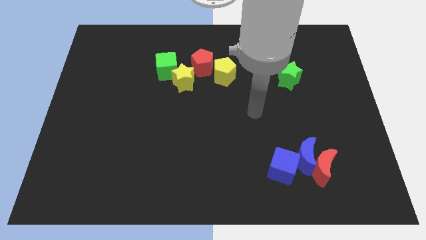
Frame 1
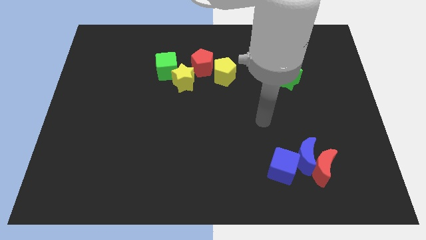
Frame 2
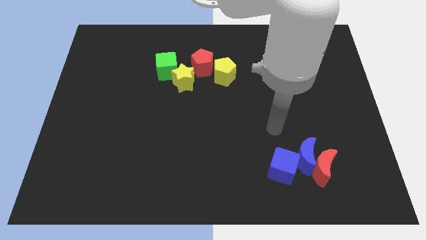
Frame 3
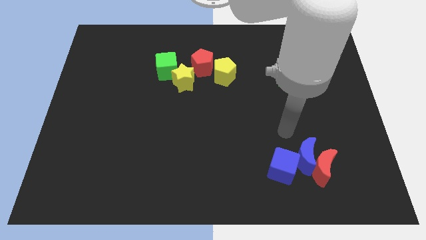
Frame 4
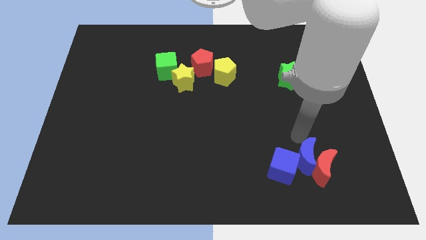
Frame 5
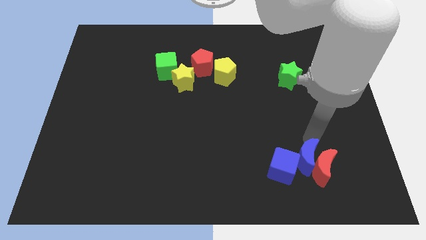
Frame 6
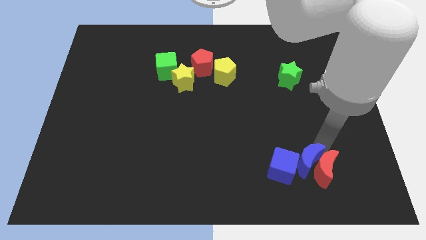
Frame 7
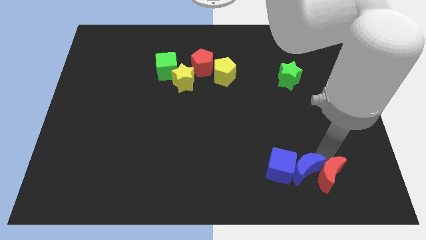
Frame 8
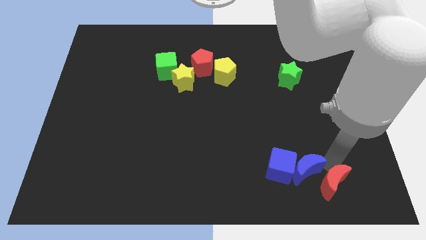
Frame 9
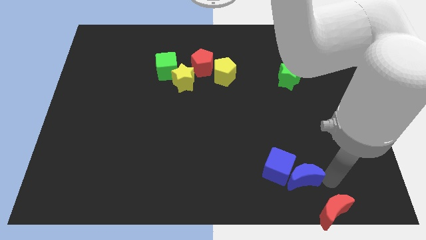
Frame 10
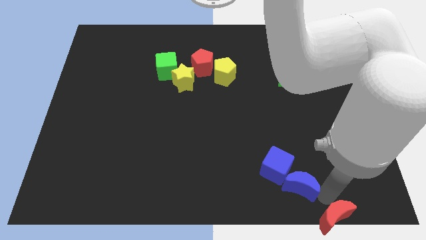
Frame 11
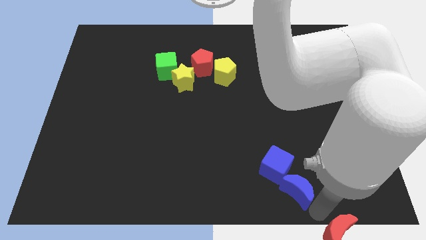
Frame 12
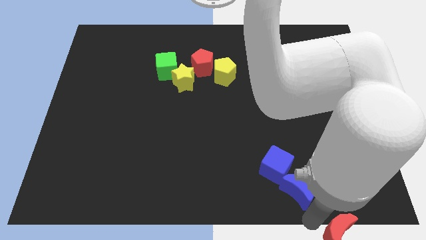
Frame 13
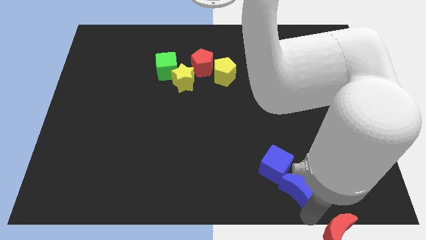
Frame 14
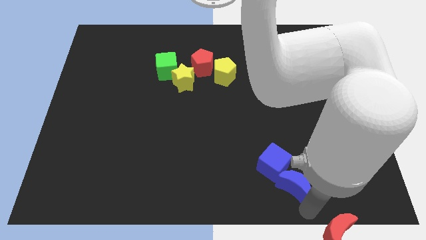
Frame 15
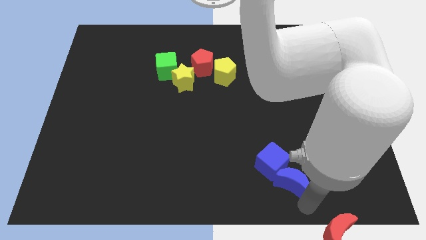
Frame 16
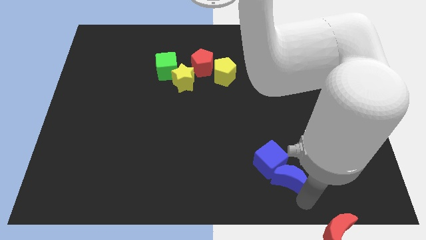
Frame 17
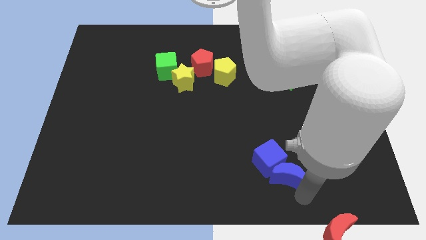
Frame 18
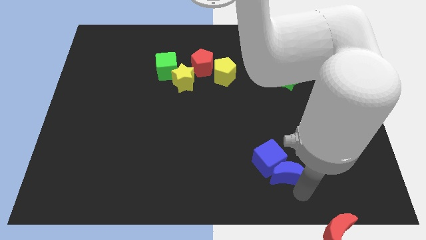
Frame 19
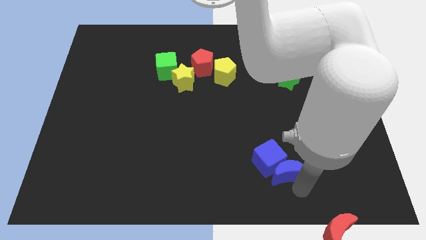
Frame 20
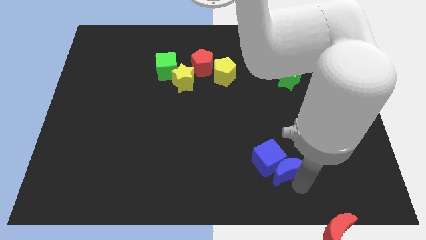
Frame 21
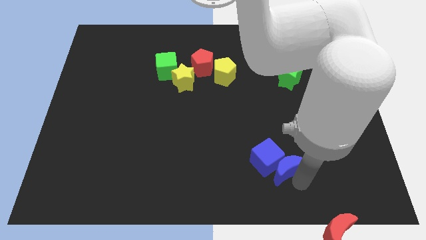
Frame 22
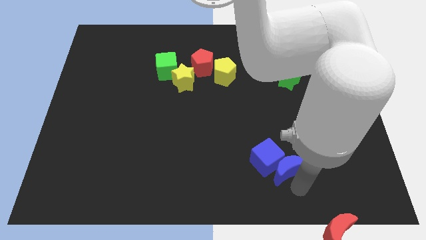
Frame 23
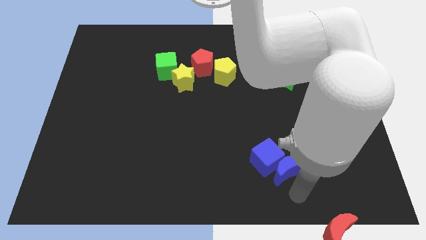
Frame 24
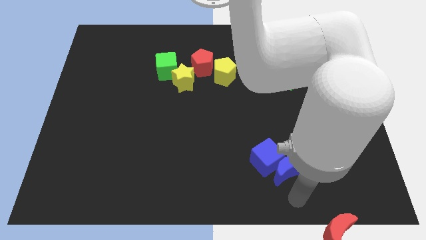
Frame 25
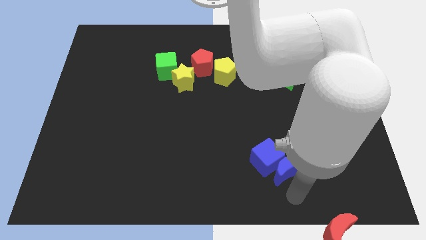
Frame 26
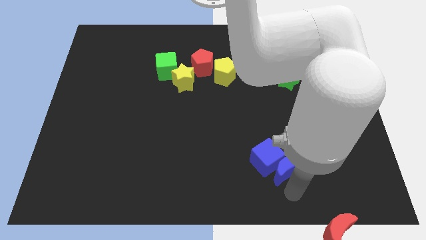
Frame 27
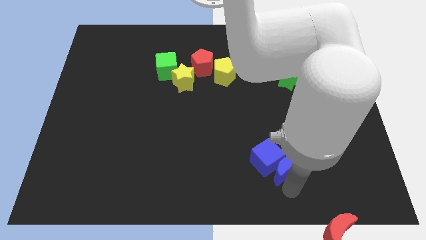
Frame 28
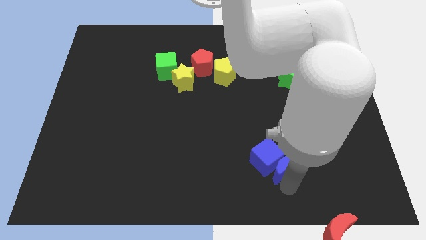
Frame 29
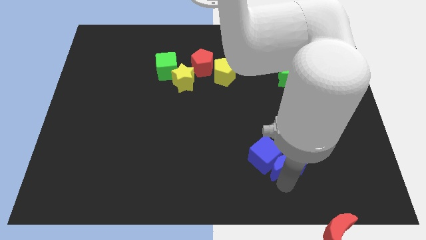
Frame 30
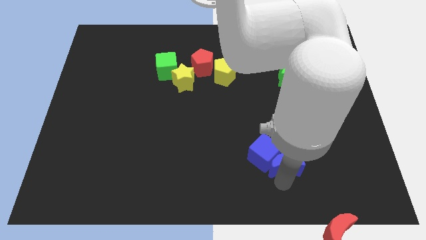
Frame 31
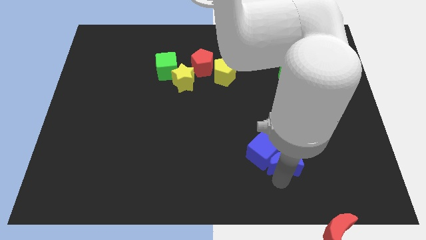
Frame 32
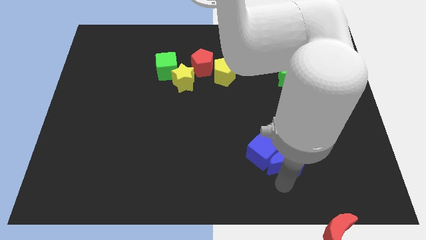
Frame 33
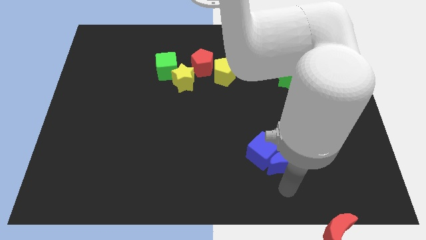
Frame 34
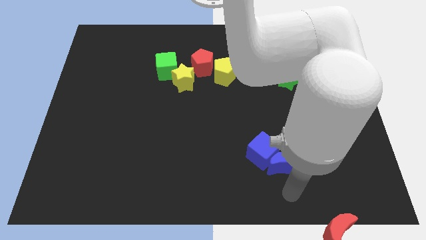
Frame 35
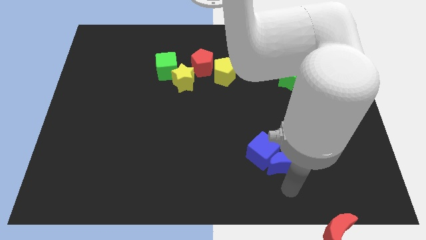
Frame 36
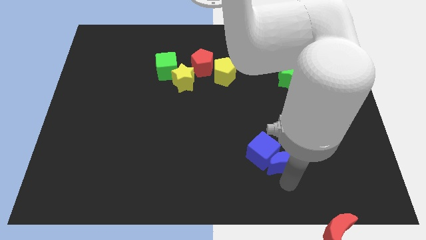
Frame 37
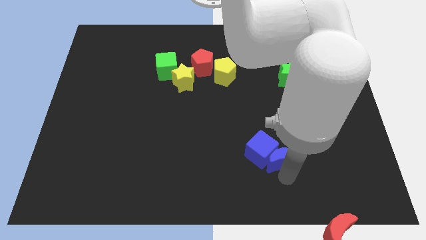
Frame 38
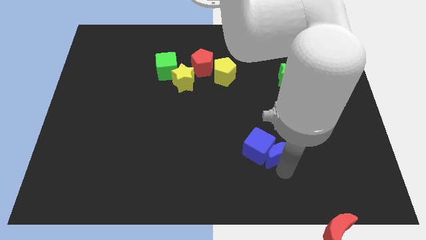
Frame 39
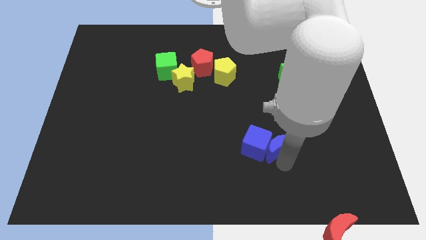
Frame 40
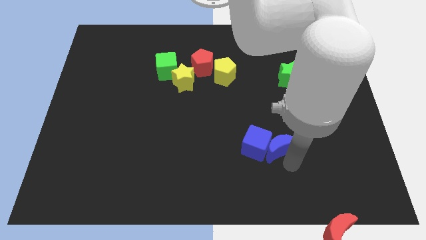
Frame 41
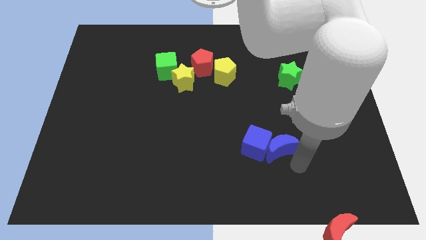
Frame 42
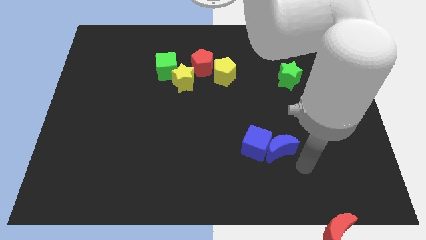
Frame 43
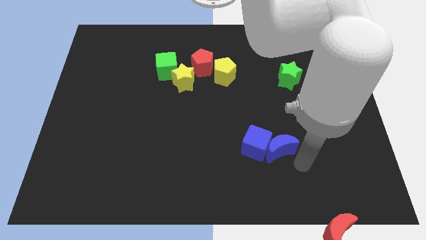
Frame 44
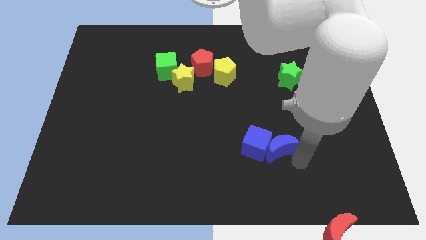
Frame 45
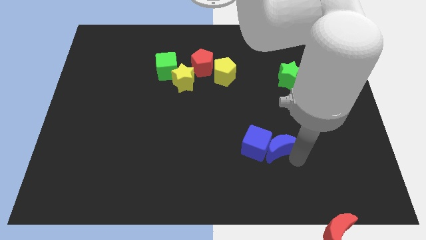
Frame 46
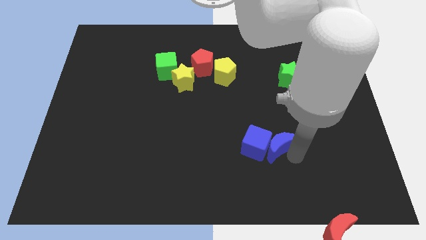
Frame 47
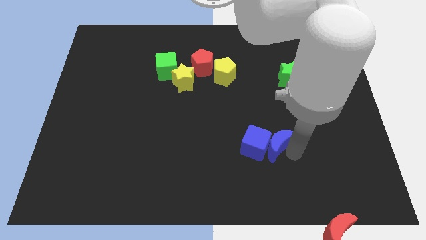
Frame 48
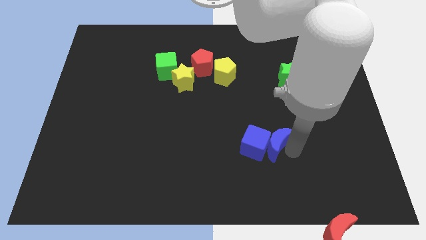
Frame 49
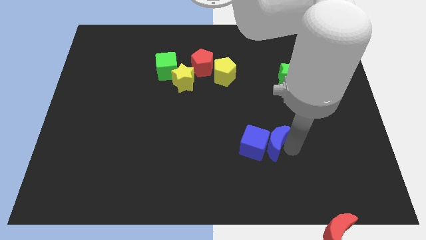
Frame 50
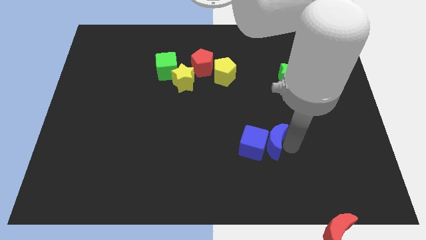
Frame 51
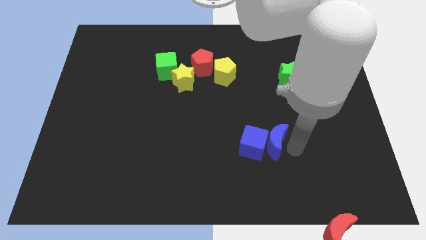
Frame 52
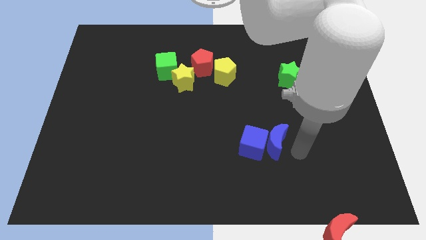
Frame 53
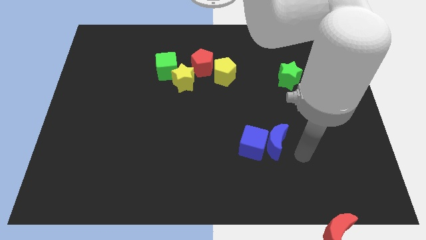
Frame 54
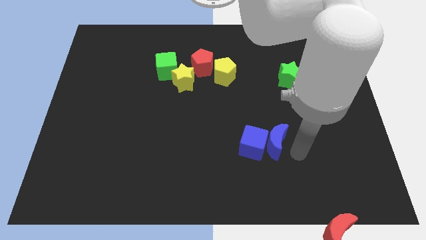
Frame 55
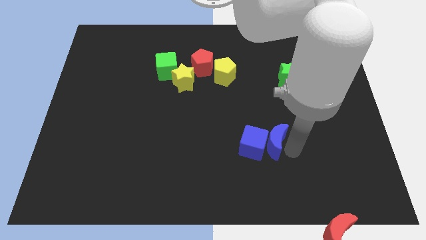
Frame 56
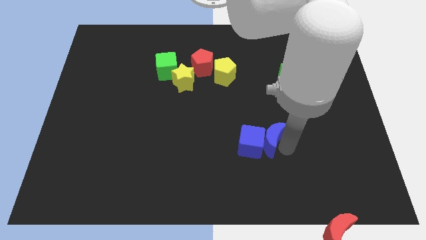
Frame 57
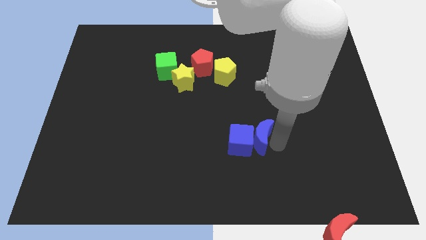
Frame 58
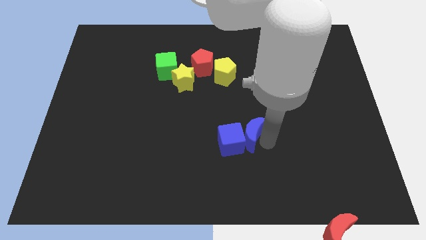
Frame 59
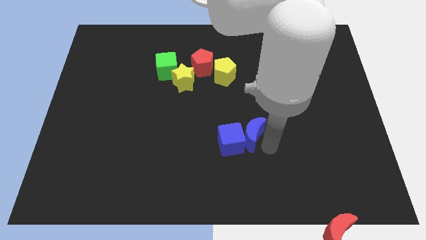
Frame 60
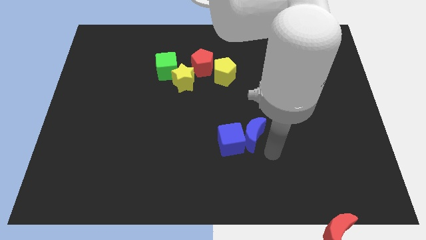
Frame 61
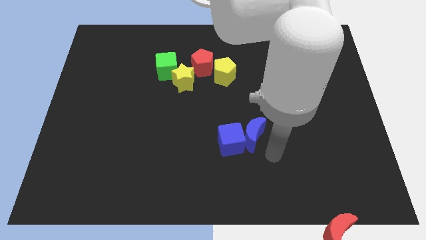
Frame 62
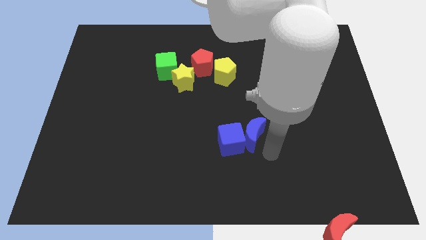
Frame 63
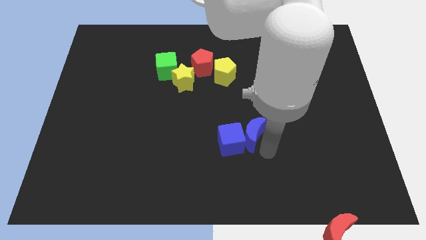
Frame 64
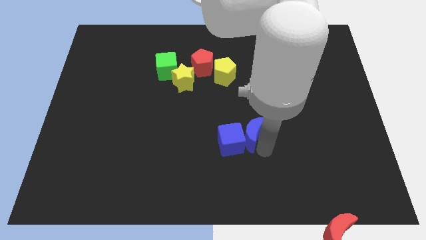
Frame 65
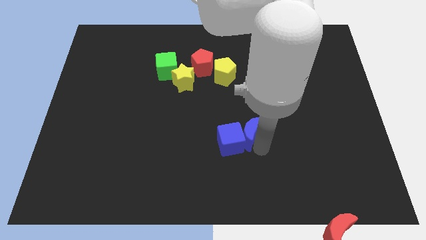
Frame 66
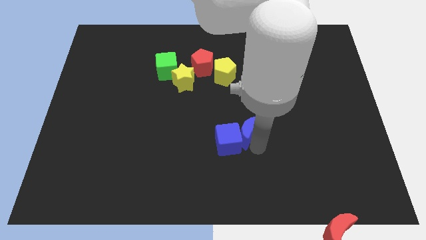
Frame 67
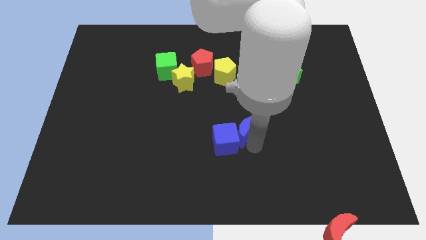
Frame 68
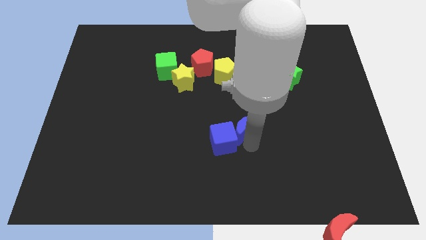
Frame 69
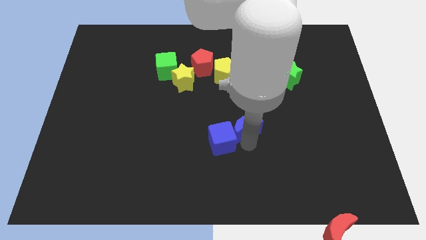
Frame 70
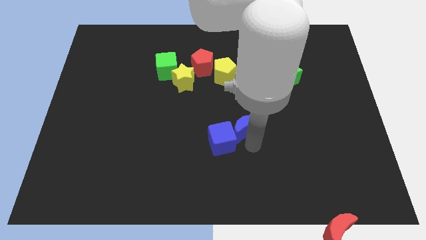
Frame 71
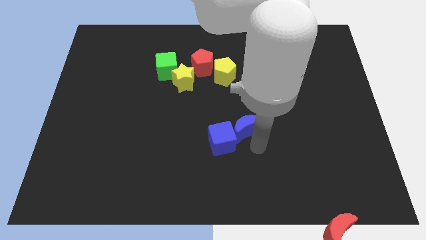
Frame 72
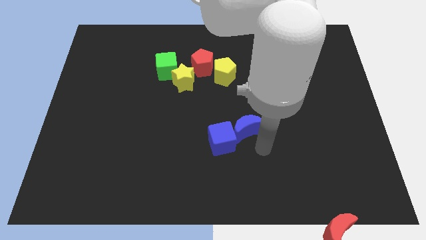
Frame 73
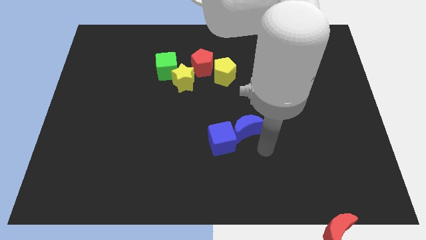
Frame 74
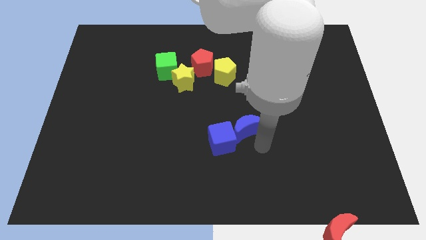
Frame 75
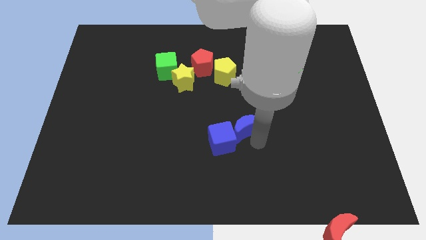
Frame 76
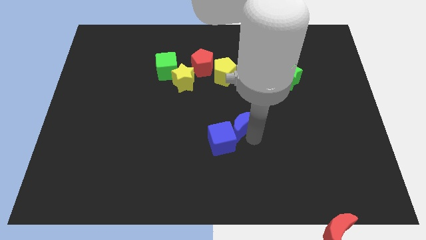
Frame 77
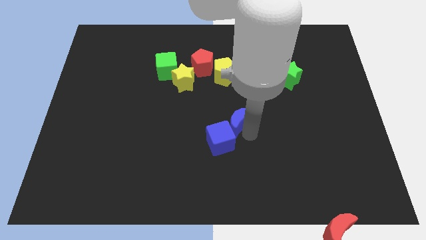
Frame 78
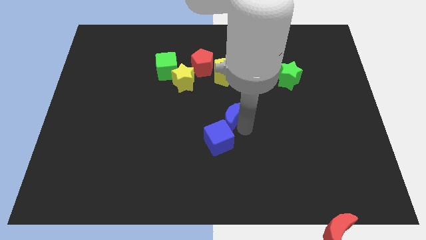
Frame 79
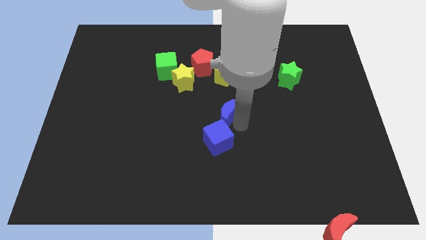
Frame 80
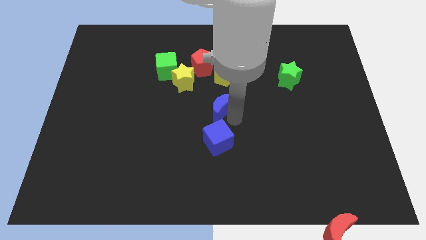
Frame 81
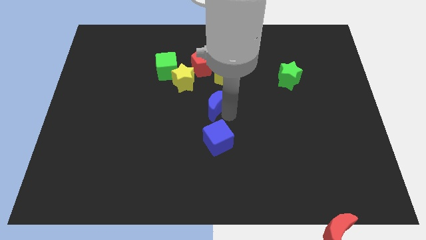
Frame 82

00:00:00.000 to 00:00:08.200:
put the blue moon below the red pentagon

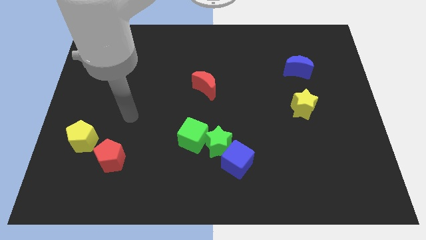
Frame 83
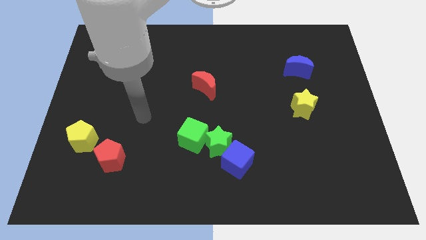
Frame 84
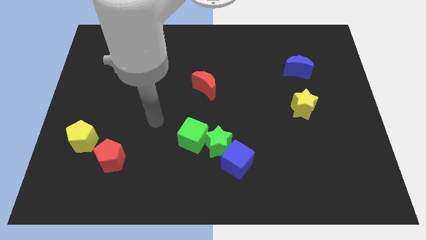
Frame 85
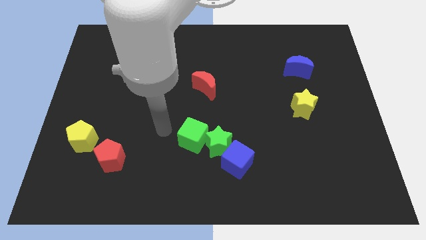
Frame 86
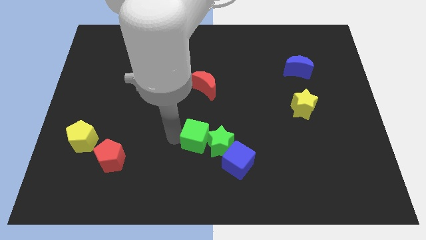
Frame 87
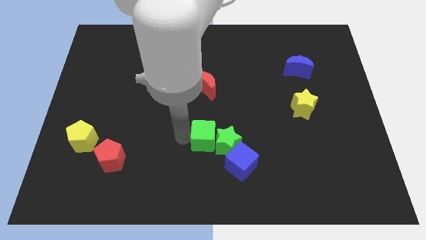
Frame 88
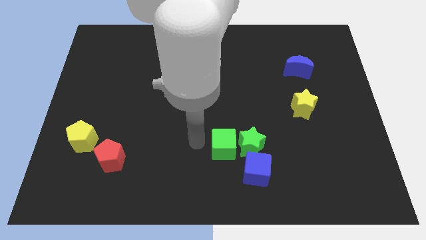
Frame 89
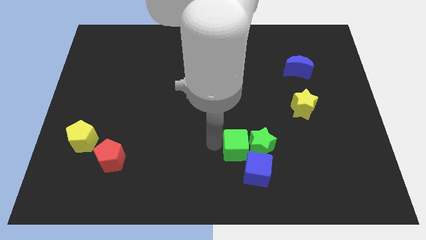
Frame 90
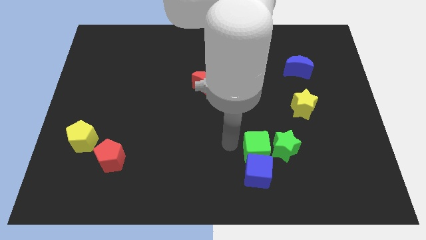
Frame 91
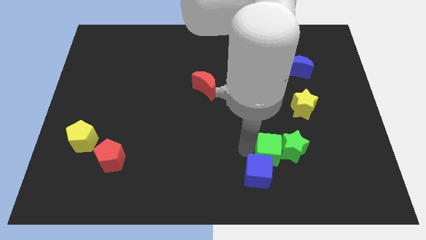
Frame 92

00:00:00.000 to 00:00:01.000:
push the green star below the yellow star
